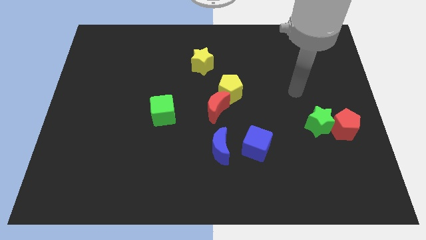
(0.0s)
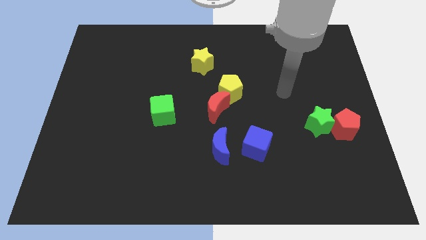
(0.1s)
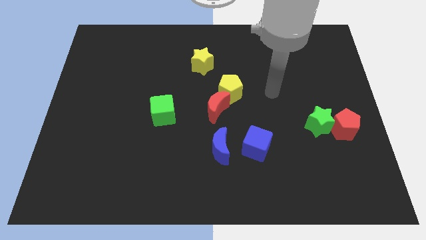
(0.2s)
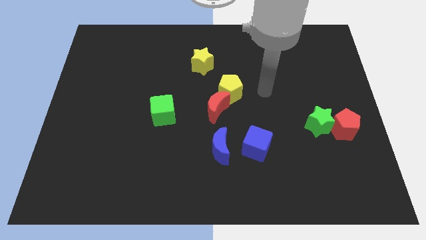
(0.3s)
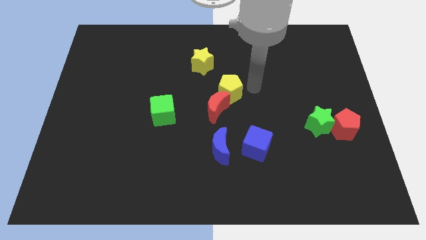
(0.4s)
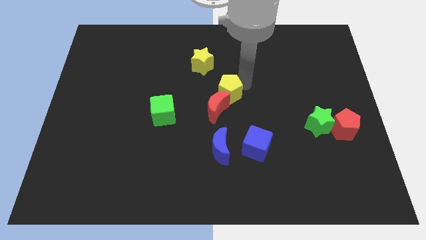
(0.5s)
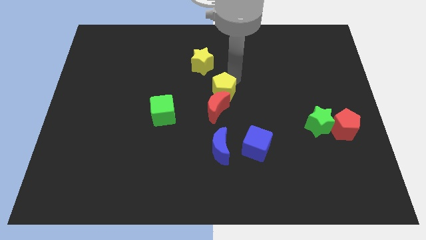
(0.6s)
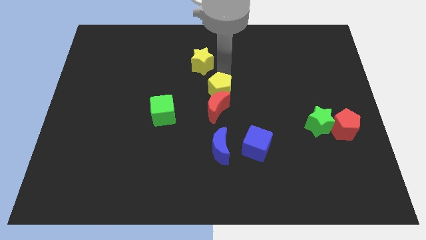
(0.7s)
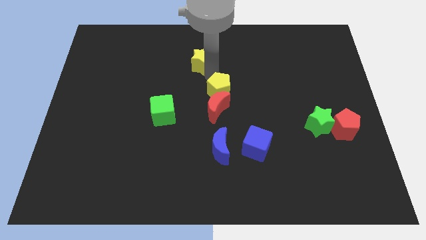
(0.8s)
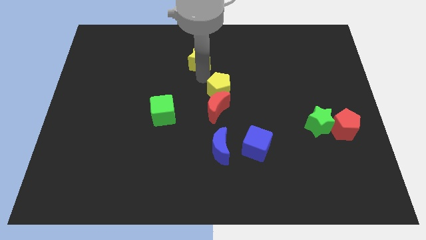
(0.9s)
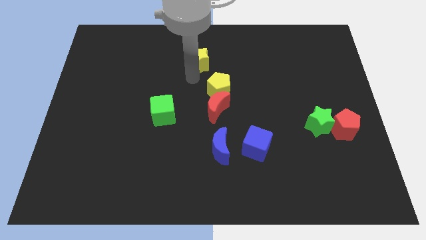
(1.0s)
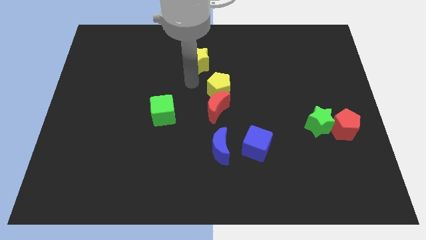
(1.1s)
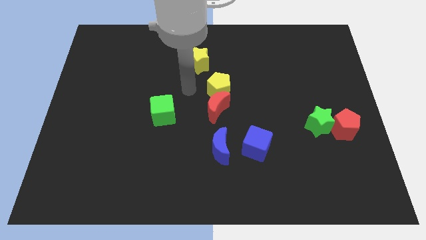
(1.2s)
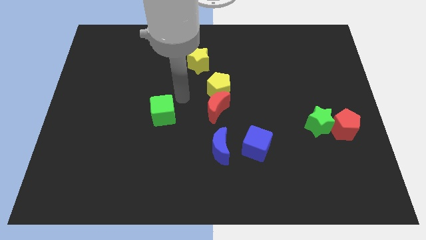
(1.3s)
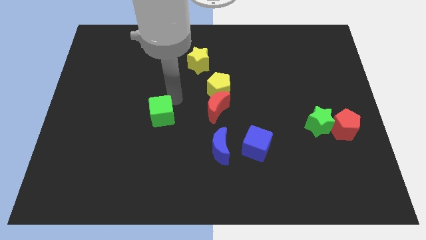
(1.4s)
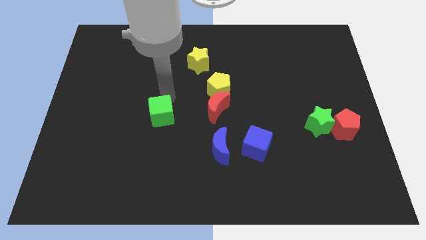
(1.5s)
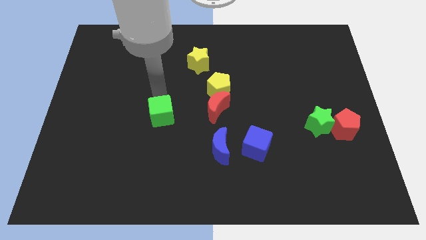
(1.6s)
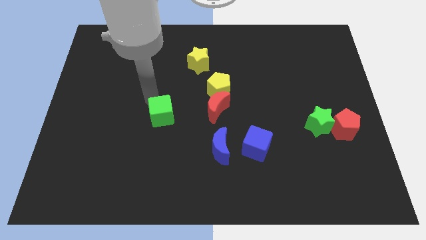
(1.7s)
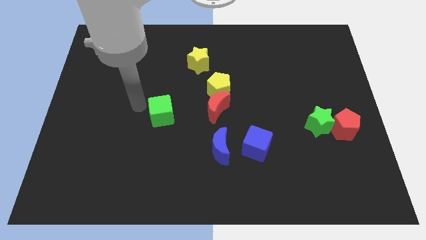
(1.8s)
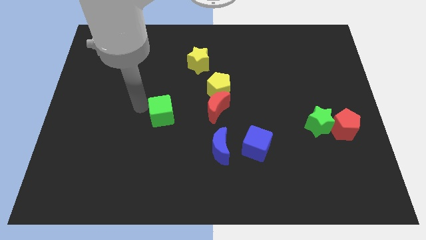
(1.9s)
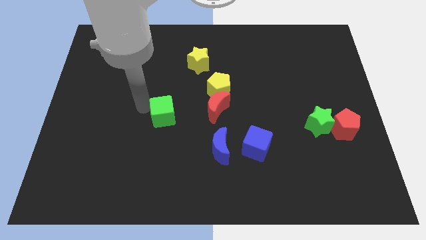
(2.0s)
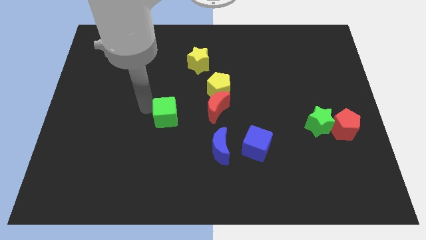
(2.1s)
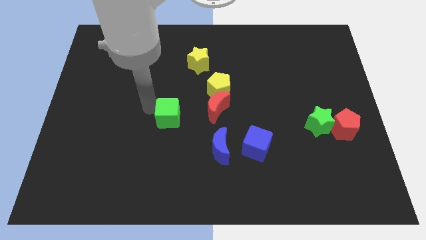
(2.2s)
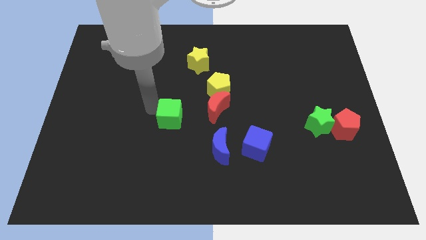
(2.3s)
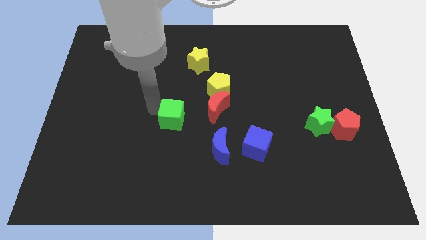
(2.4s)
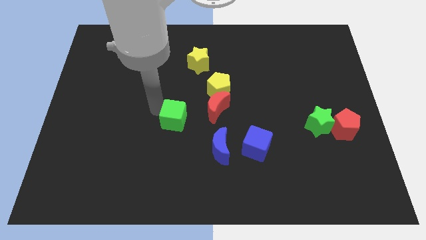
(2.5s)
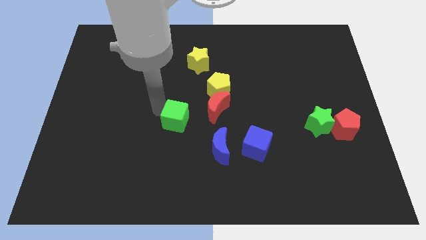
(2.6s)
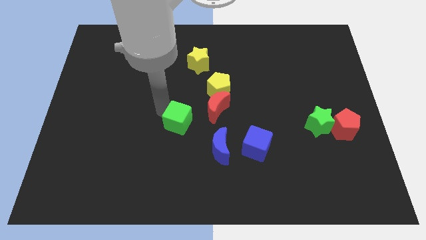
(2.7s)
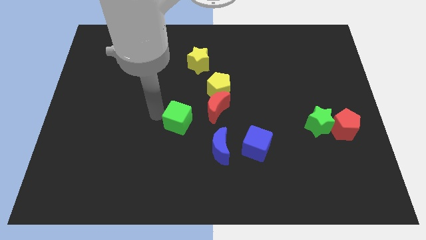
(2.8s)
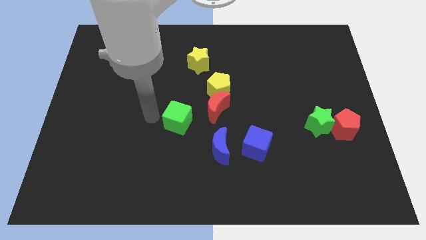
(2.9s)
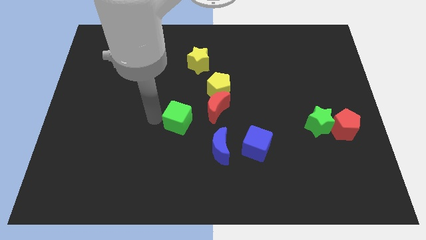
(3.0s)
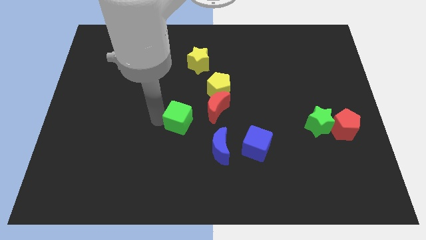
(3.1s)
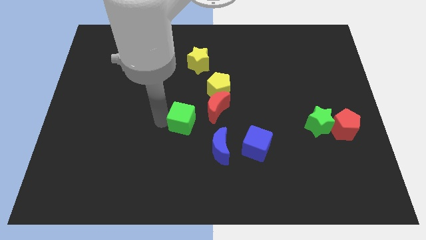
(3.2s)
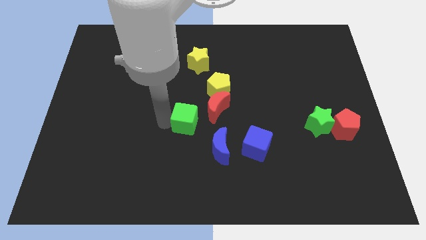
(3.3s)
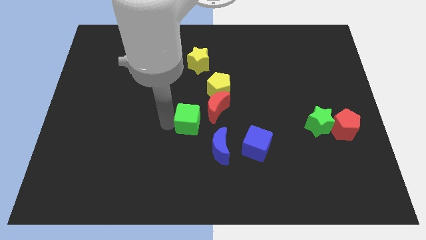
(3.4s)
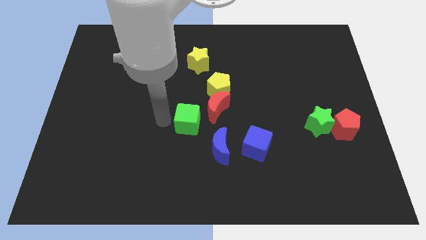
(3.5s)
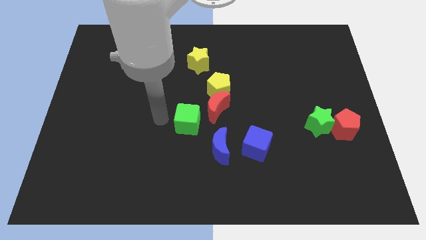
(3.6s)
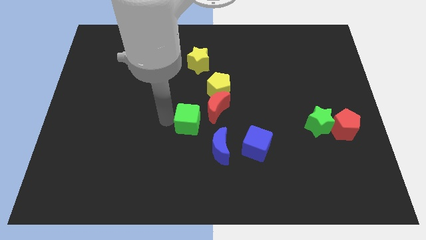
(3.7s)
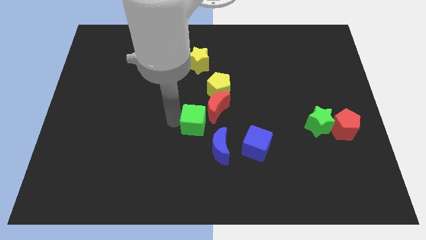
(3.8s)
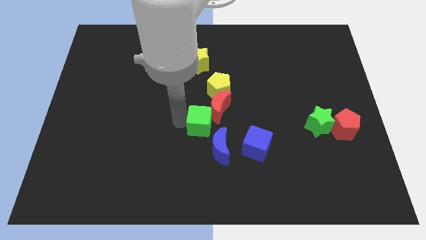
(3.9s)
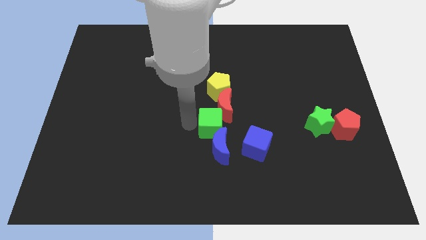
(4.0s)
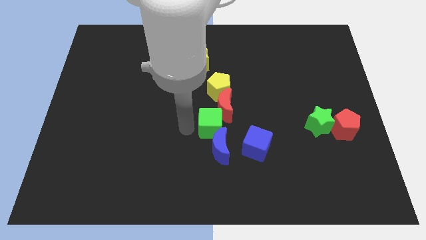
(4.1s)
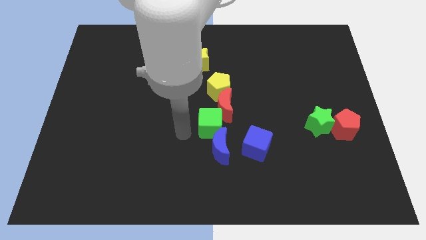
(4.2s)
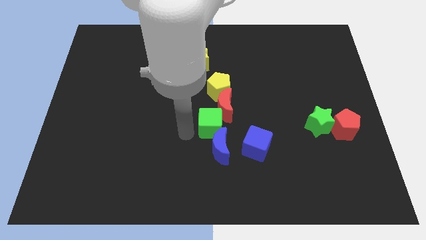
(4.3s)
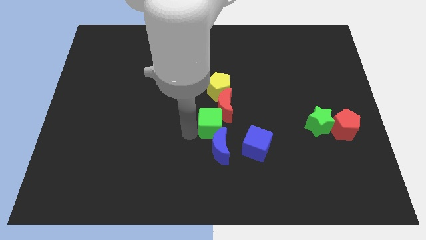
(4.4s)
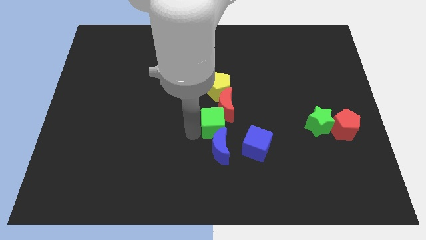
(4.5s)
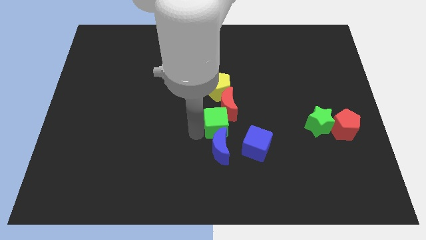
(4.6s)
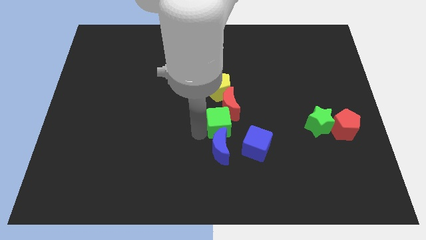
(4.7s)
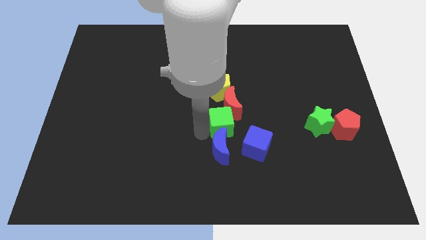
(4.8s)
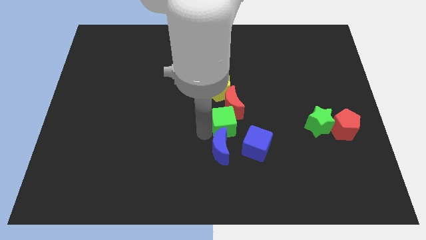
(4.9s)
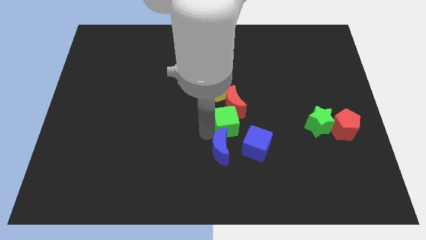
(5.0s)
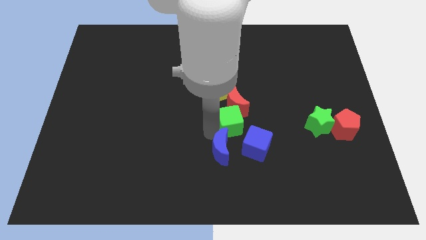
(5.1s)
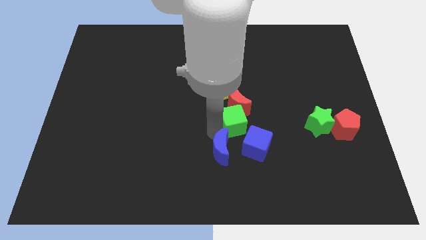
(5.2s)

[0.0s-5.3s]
push the green cube to the top side of the blue cube

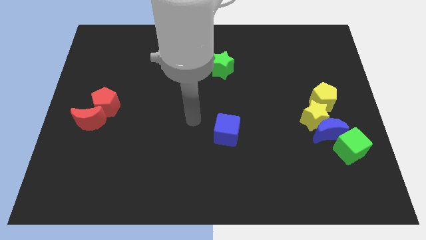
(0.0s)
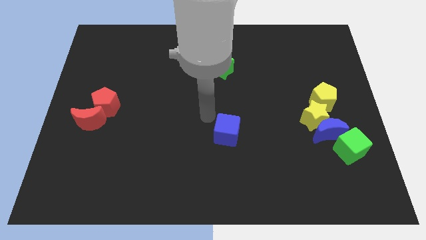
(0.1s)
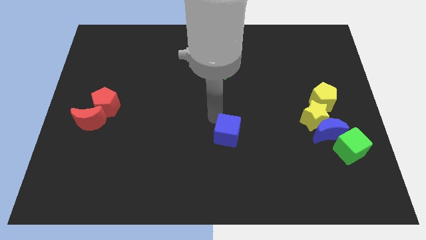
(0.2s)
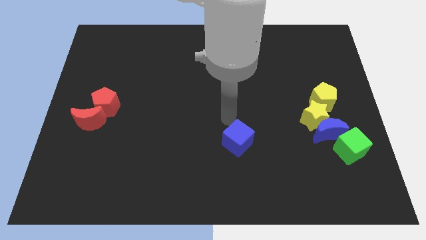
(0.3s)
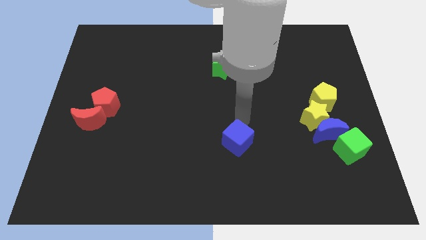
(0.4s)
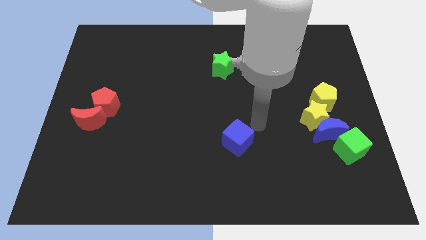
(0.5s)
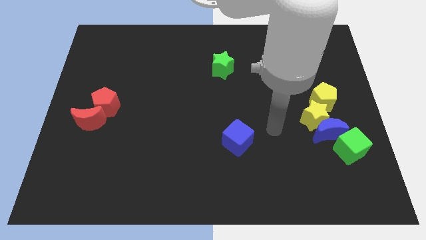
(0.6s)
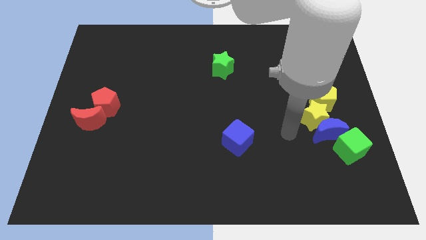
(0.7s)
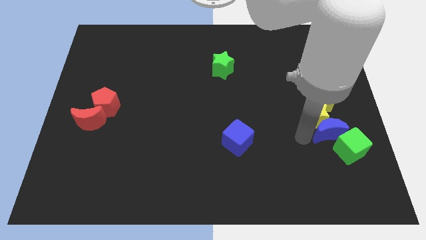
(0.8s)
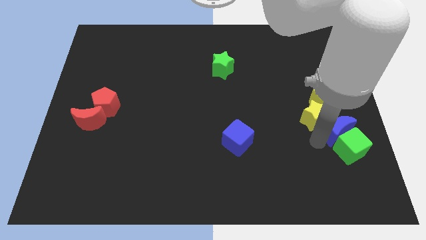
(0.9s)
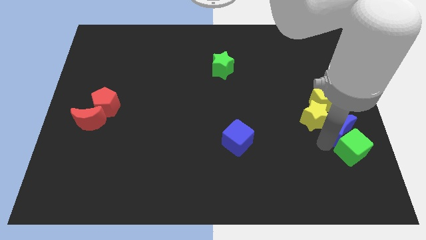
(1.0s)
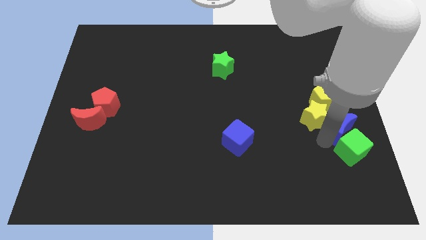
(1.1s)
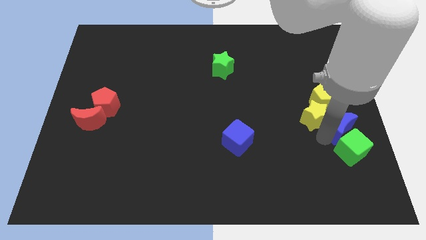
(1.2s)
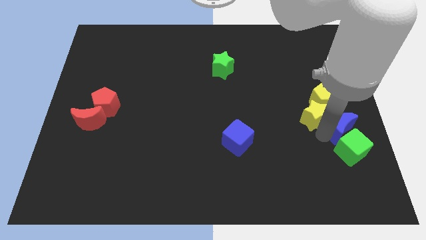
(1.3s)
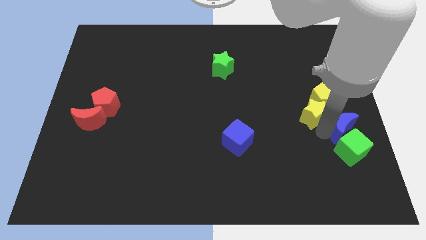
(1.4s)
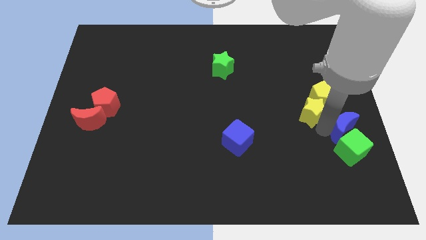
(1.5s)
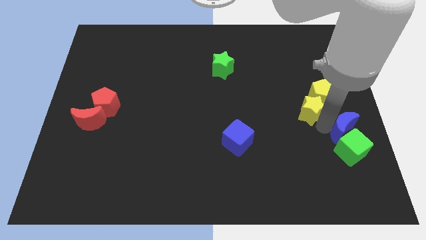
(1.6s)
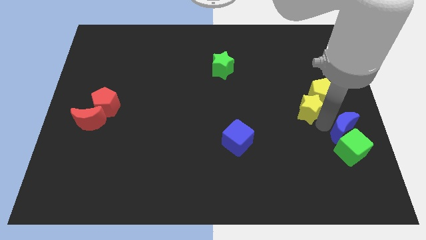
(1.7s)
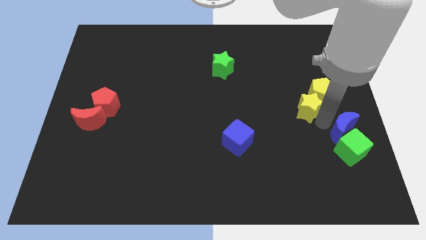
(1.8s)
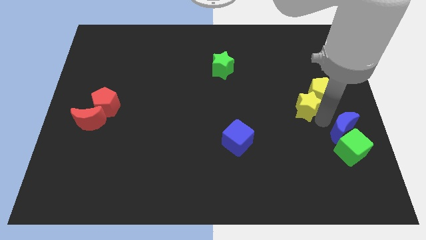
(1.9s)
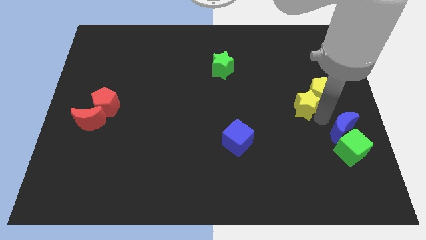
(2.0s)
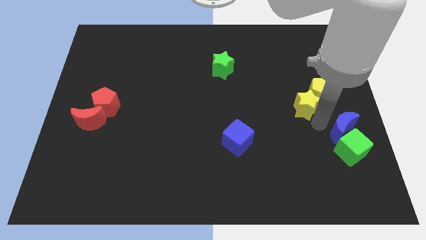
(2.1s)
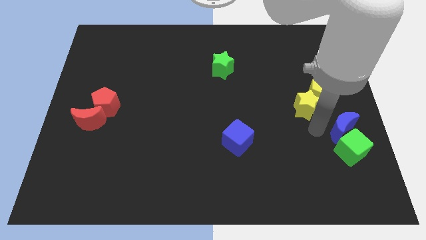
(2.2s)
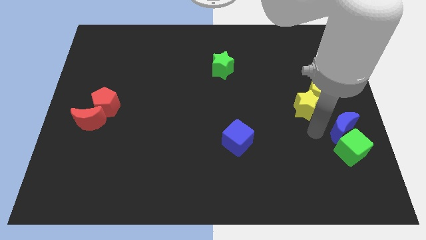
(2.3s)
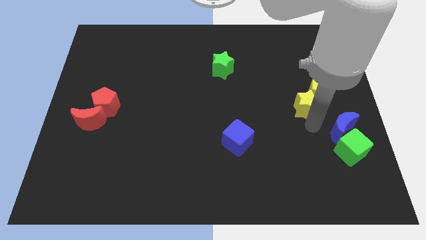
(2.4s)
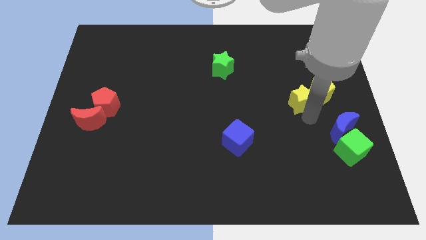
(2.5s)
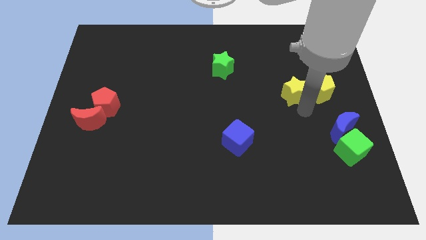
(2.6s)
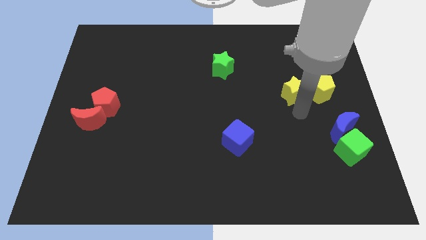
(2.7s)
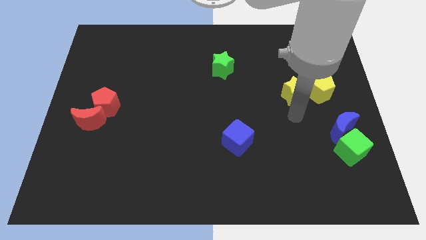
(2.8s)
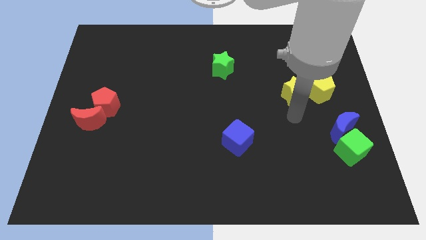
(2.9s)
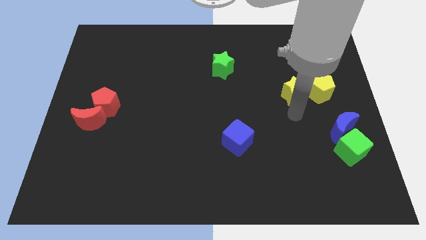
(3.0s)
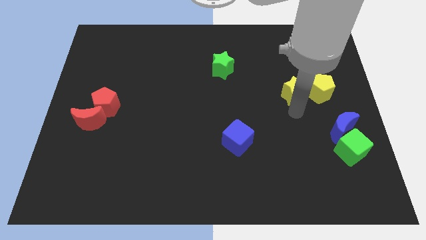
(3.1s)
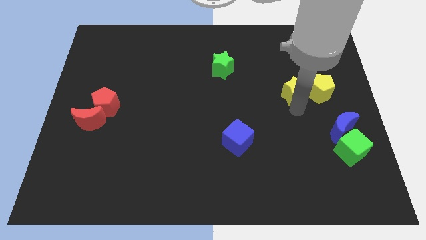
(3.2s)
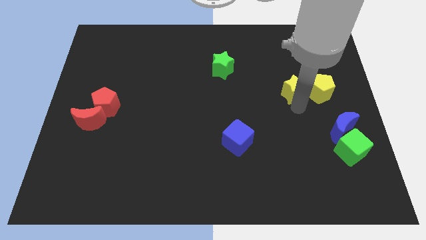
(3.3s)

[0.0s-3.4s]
push the yellow star diagonally up and to the left of the yellow pentagon
